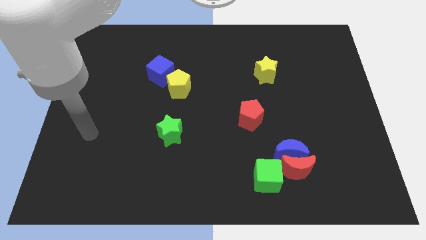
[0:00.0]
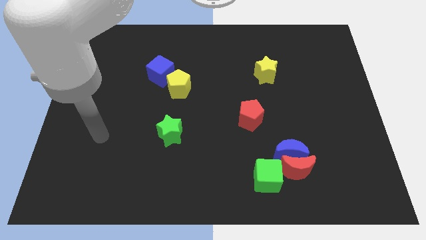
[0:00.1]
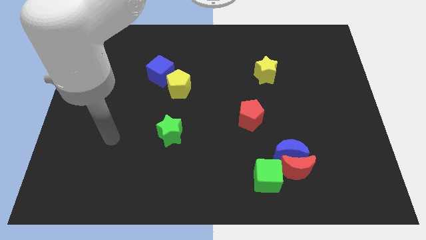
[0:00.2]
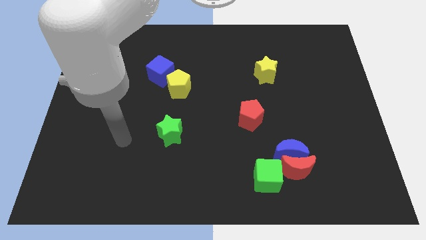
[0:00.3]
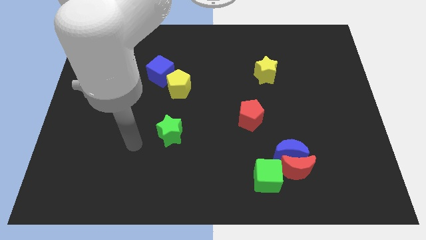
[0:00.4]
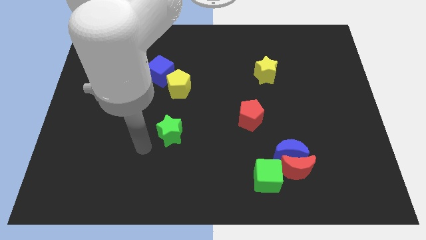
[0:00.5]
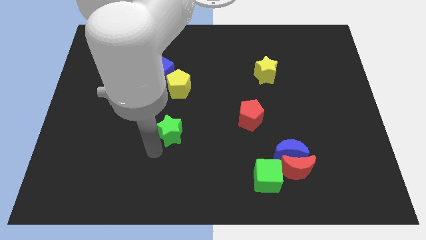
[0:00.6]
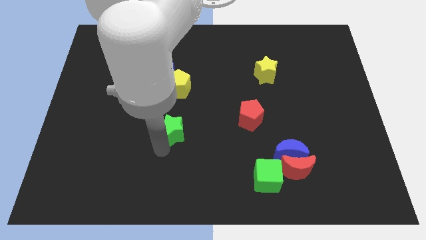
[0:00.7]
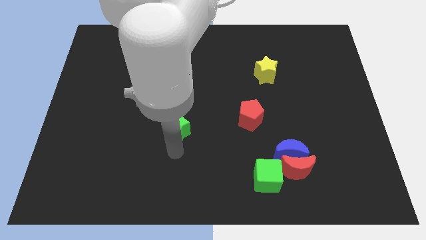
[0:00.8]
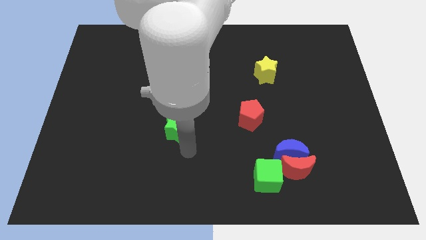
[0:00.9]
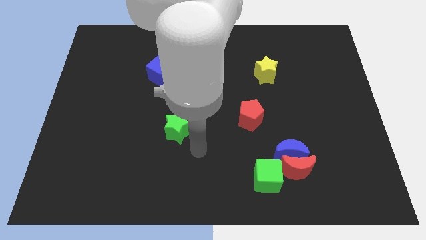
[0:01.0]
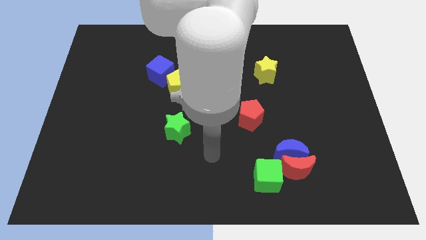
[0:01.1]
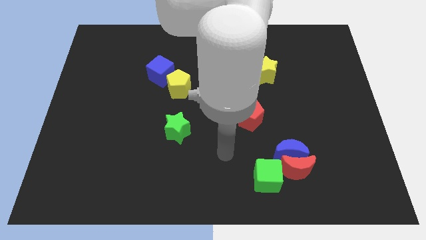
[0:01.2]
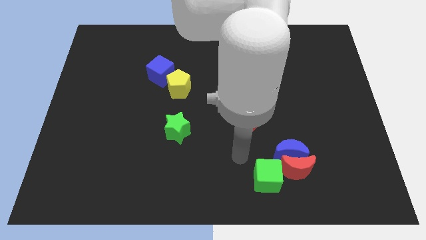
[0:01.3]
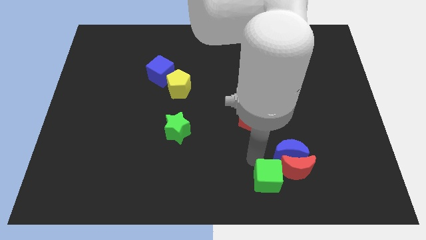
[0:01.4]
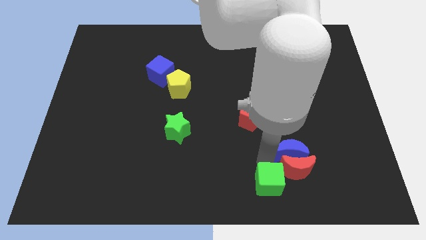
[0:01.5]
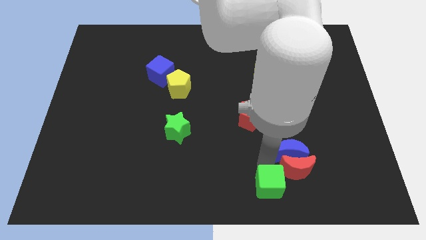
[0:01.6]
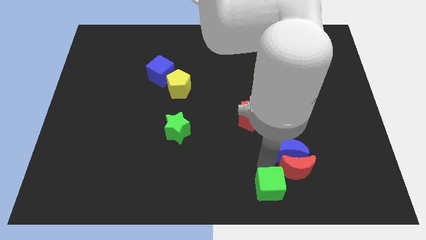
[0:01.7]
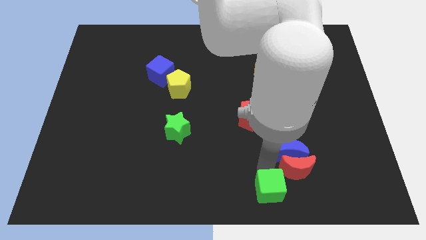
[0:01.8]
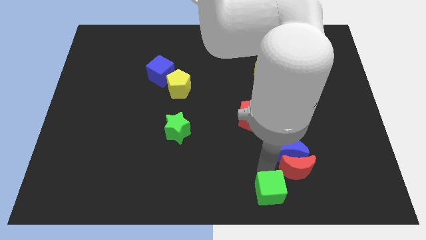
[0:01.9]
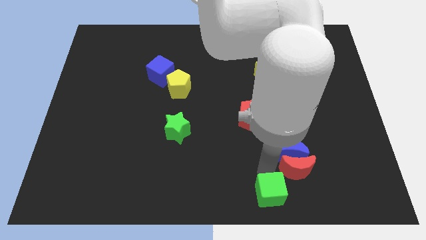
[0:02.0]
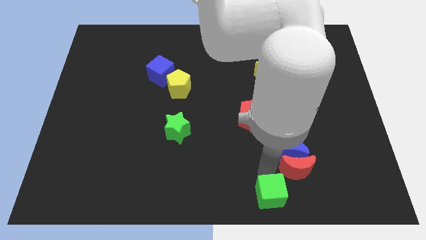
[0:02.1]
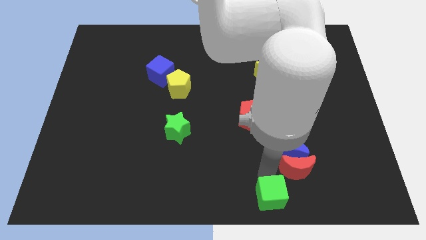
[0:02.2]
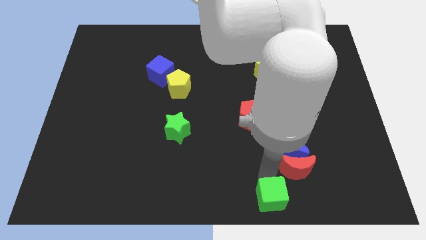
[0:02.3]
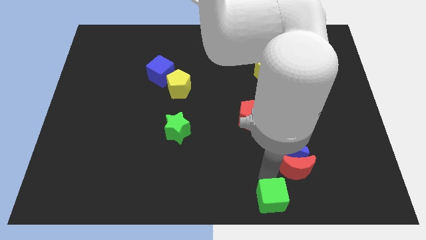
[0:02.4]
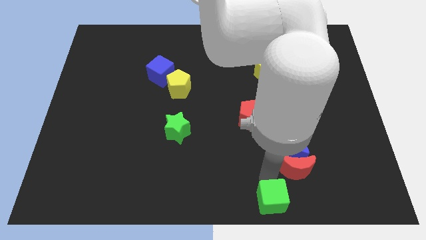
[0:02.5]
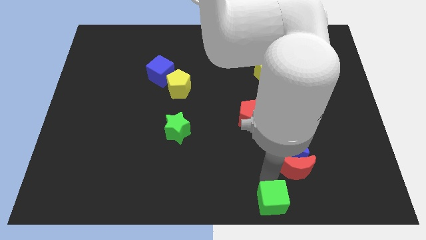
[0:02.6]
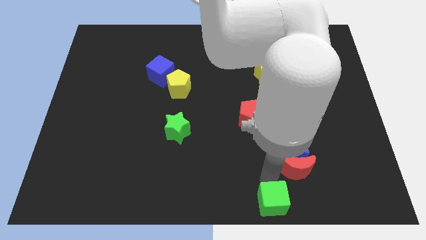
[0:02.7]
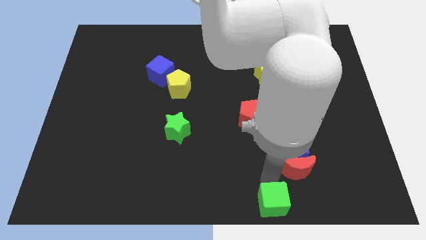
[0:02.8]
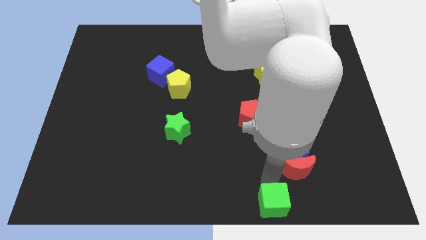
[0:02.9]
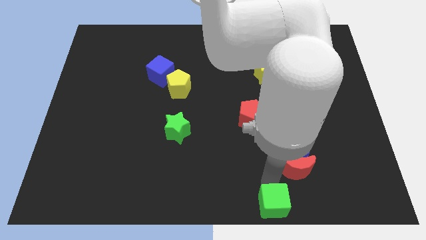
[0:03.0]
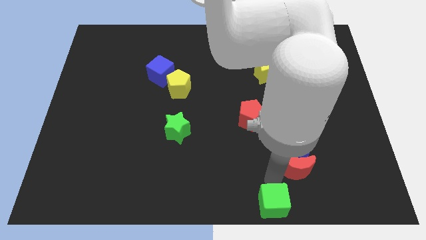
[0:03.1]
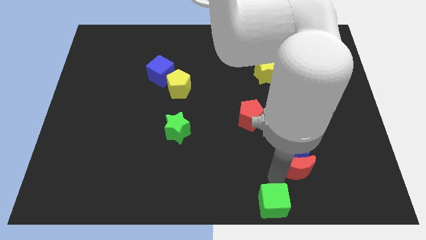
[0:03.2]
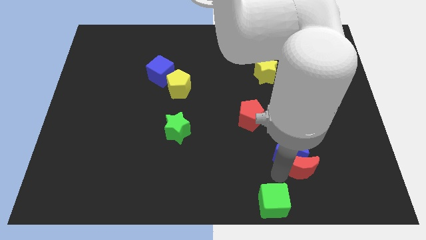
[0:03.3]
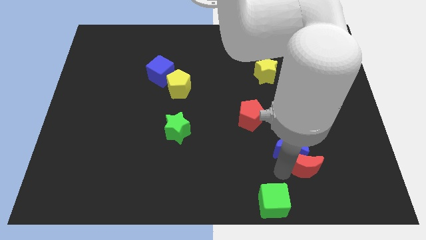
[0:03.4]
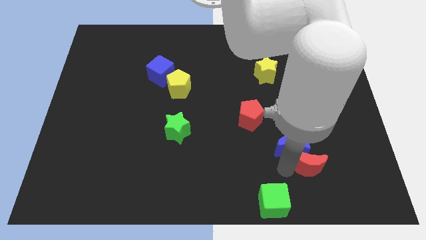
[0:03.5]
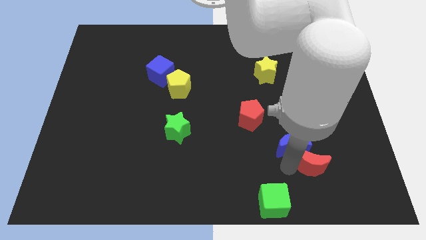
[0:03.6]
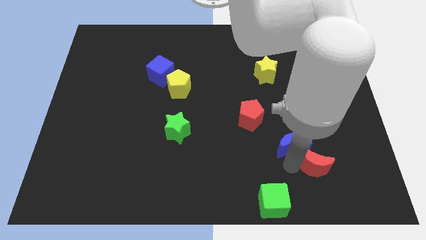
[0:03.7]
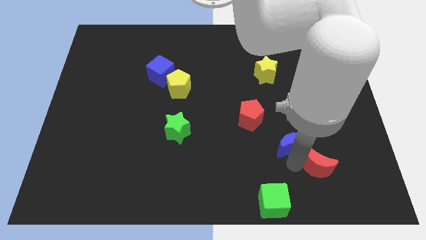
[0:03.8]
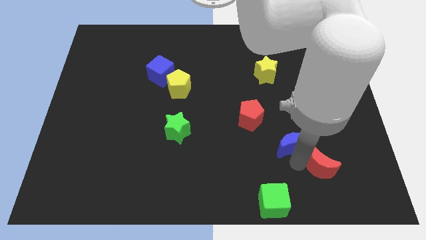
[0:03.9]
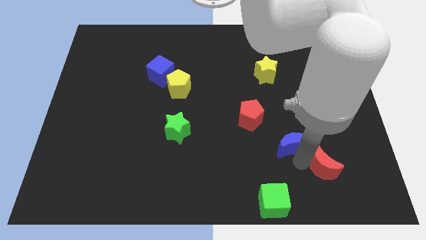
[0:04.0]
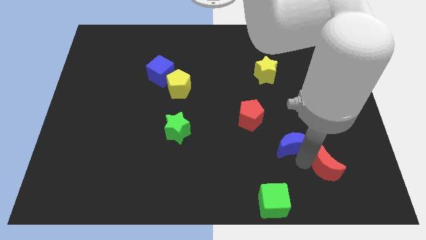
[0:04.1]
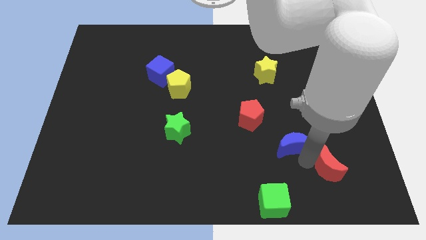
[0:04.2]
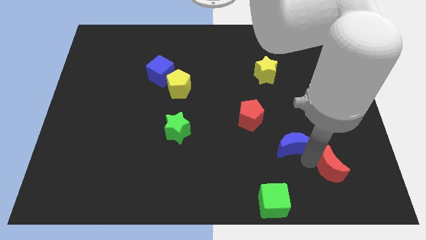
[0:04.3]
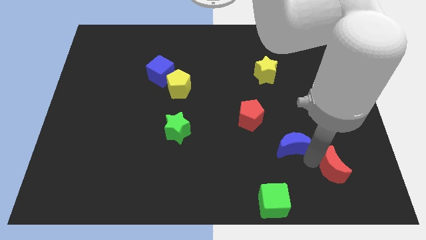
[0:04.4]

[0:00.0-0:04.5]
separate the red moon from the blue moon and green cube

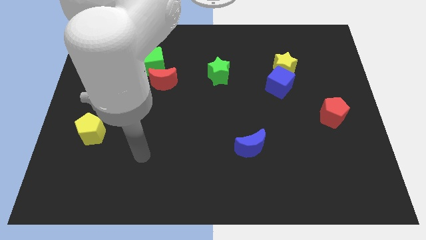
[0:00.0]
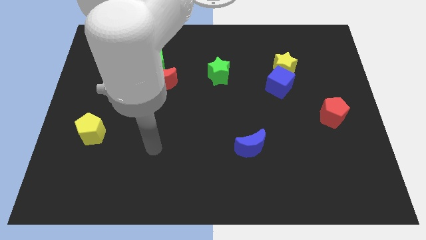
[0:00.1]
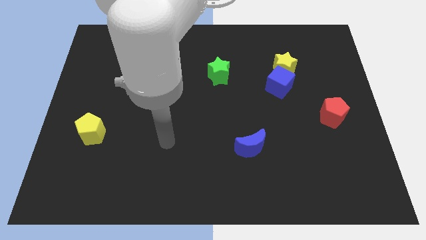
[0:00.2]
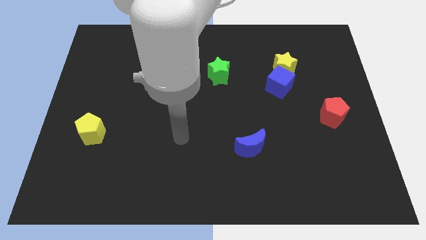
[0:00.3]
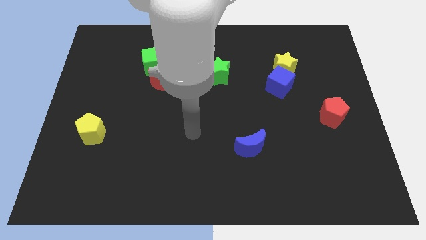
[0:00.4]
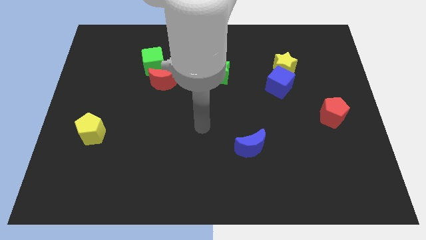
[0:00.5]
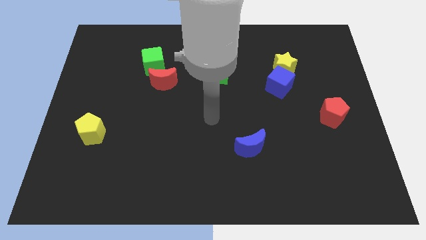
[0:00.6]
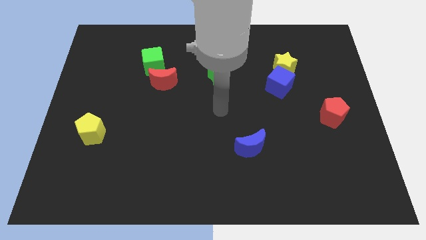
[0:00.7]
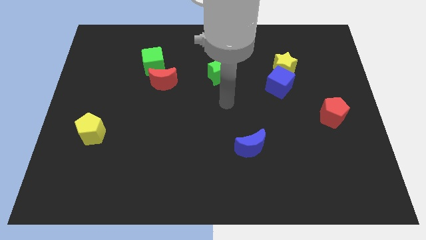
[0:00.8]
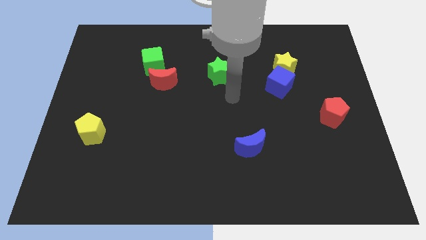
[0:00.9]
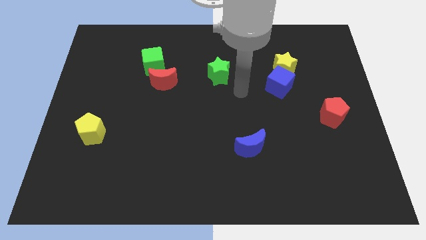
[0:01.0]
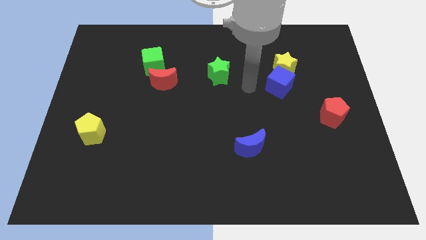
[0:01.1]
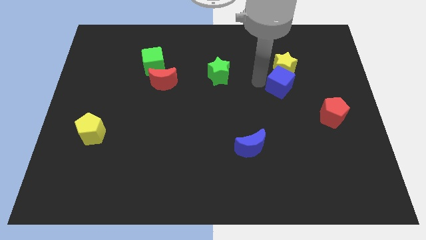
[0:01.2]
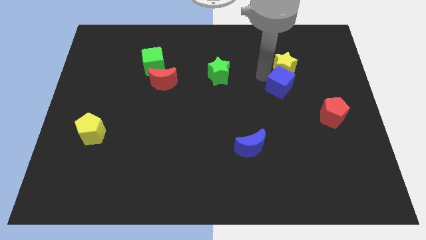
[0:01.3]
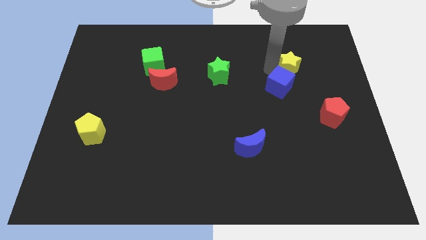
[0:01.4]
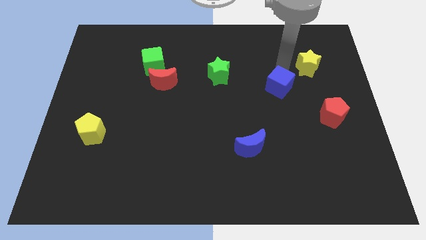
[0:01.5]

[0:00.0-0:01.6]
move the blue cube away from the yellow star

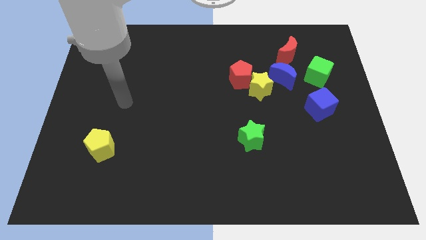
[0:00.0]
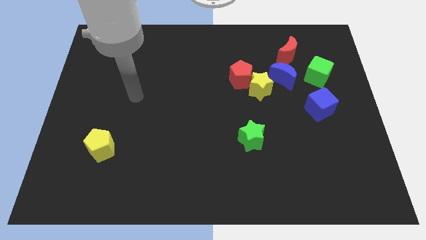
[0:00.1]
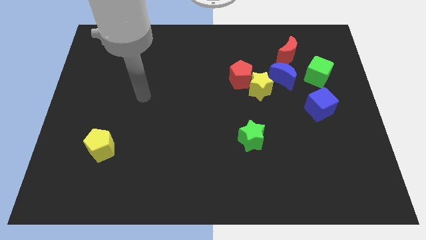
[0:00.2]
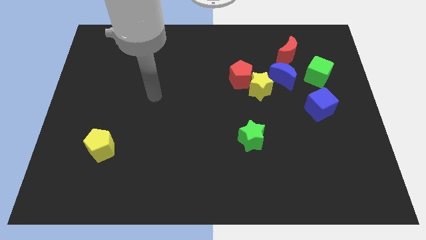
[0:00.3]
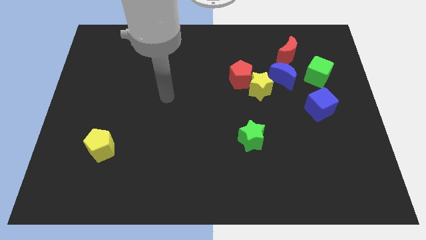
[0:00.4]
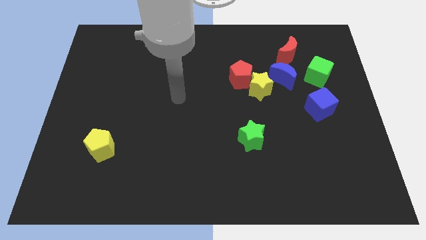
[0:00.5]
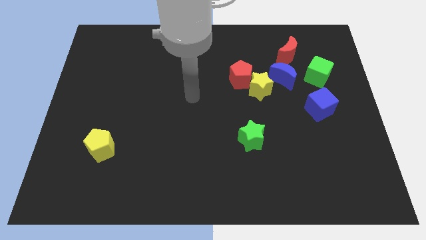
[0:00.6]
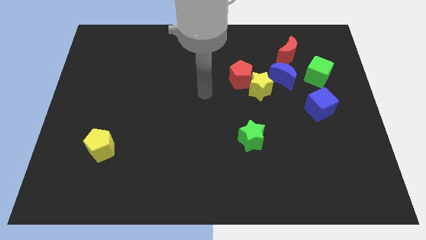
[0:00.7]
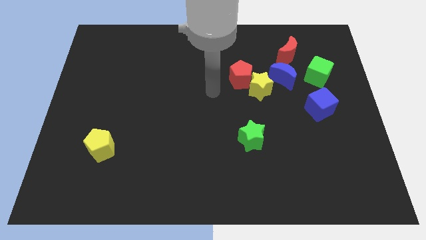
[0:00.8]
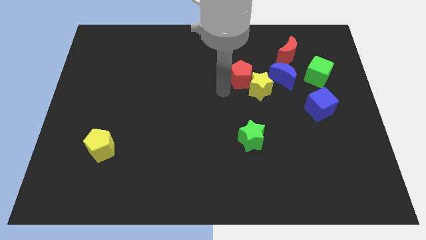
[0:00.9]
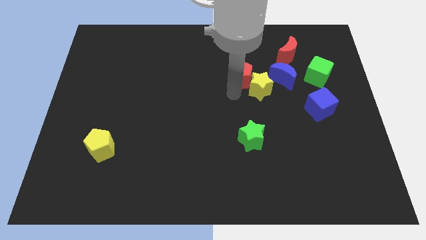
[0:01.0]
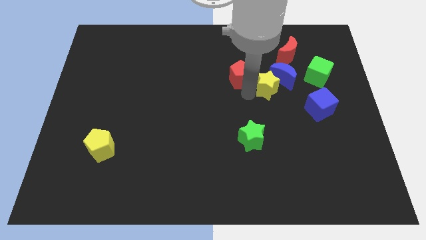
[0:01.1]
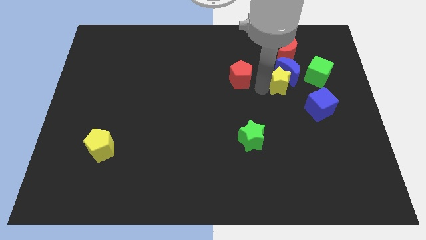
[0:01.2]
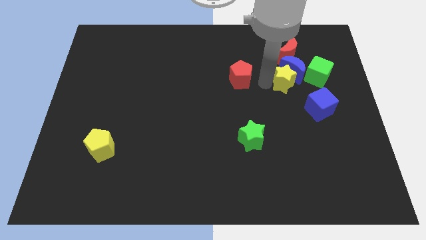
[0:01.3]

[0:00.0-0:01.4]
pull the red pentagon apart from the yellow star

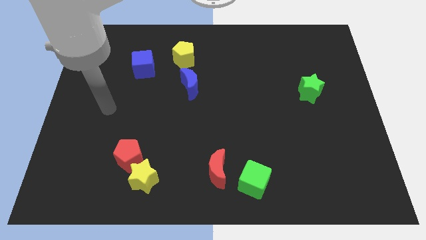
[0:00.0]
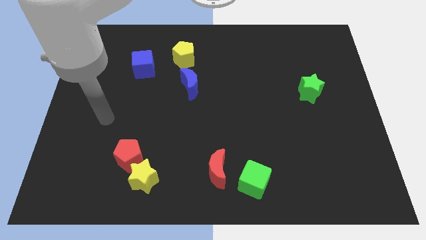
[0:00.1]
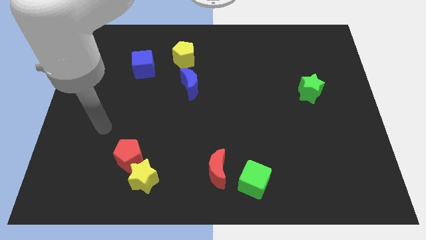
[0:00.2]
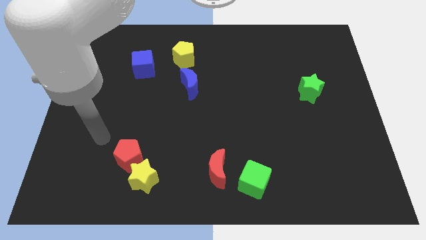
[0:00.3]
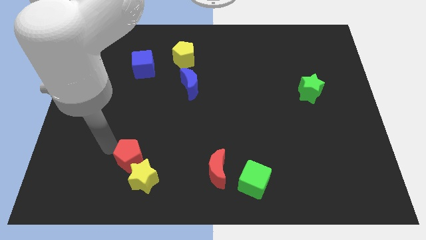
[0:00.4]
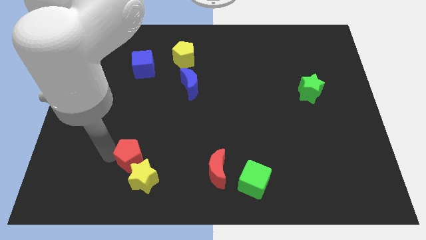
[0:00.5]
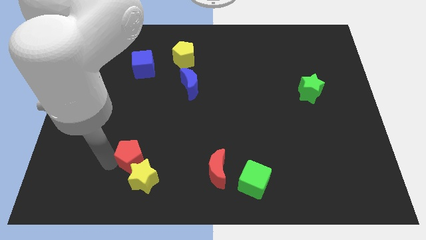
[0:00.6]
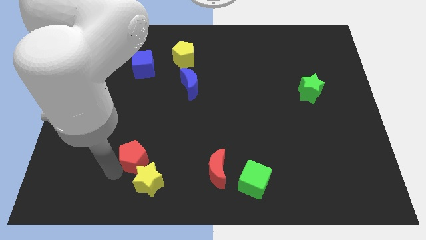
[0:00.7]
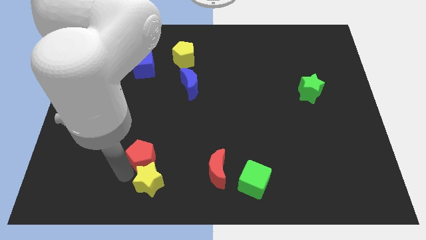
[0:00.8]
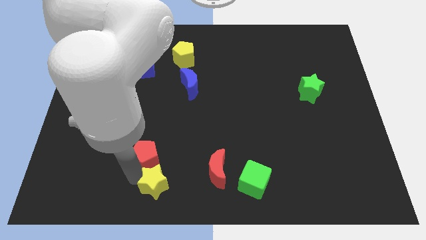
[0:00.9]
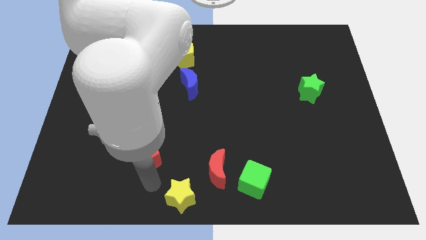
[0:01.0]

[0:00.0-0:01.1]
separate the red pentagon from the yellow star

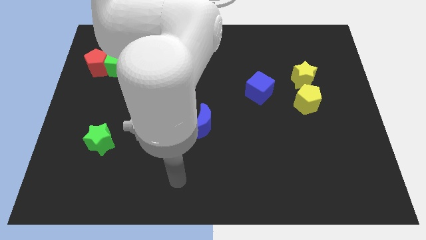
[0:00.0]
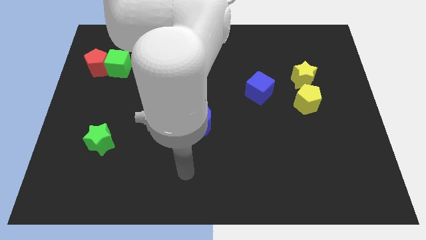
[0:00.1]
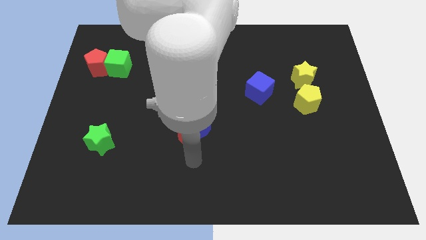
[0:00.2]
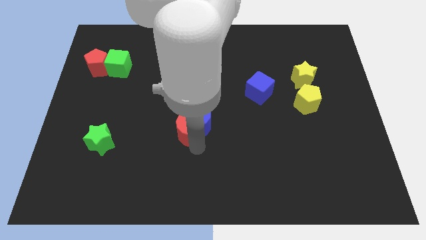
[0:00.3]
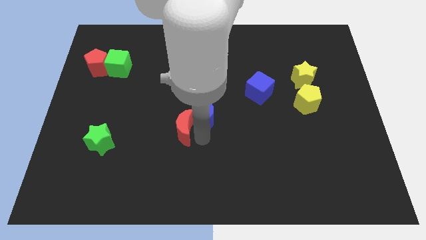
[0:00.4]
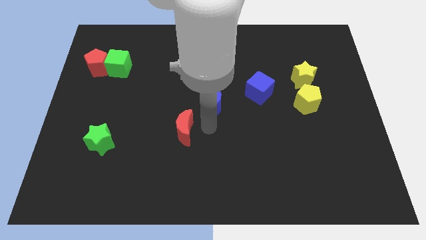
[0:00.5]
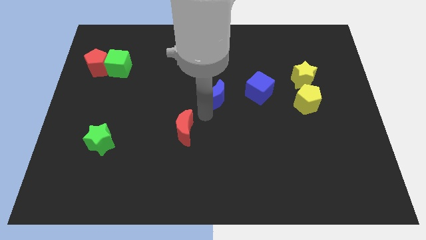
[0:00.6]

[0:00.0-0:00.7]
separate the red moon from the blue moon

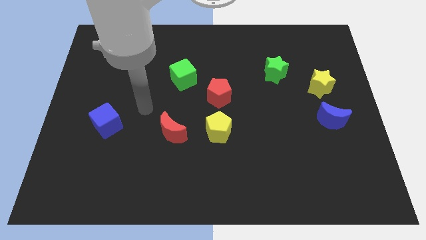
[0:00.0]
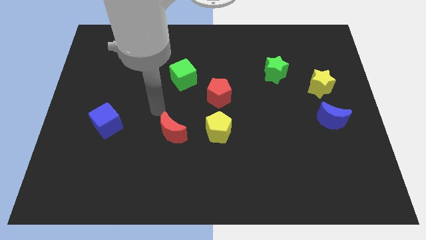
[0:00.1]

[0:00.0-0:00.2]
pull the red pentagon apart from the yellow pentagon
